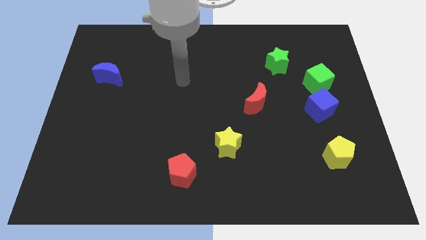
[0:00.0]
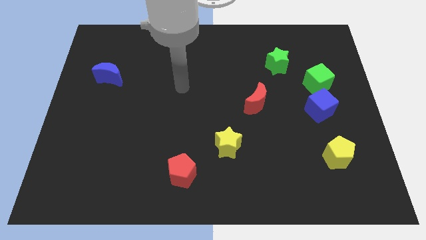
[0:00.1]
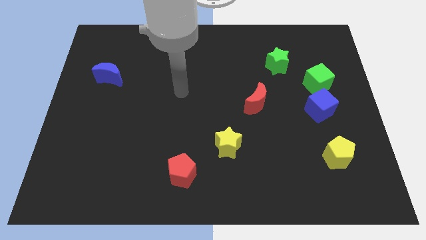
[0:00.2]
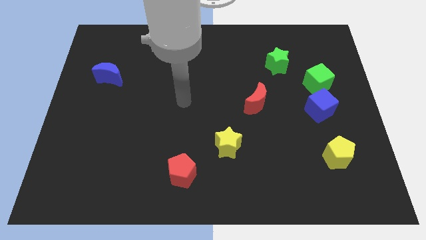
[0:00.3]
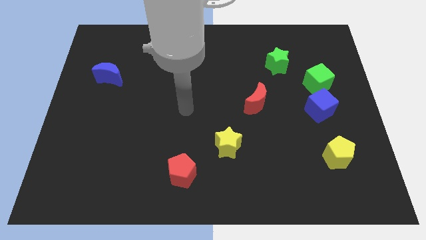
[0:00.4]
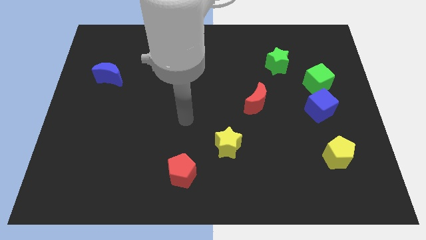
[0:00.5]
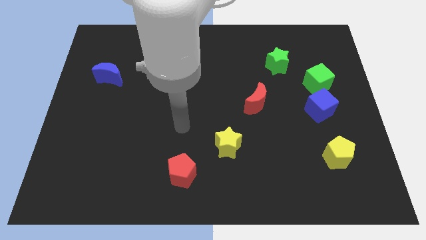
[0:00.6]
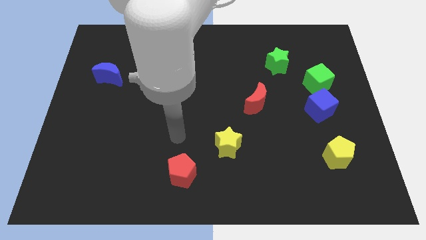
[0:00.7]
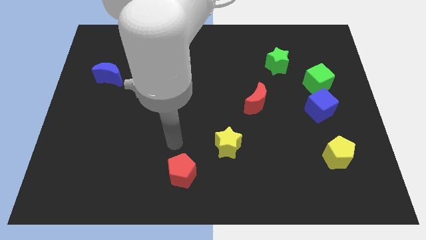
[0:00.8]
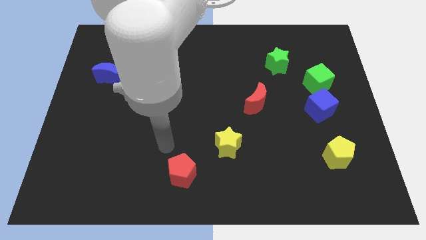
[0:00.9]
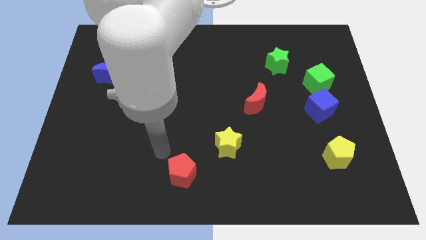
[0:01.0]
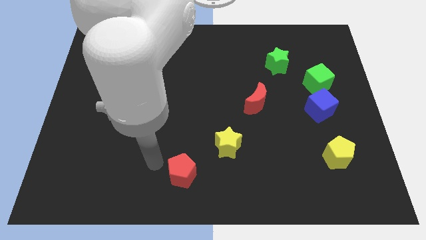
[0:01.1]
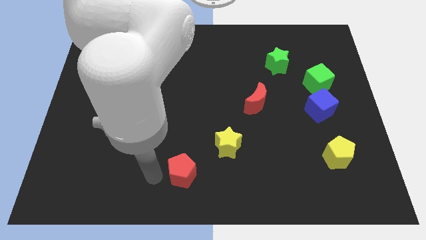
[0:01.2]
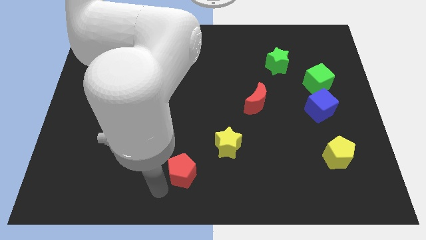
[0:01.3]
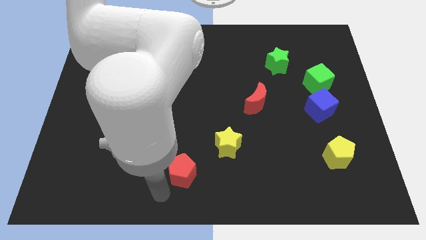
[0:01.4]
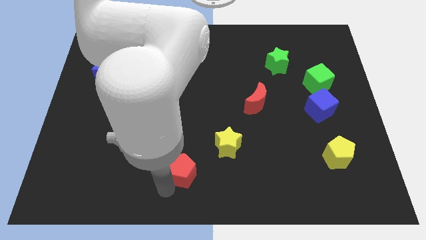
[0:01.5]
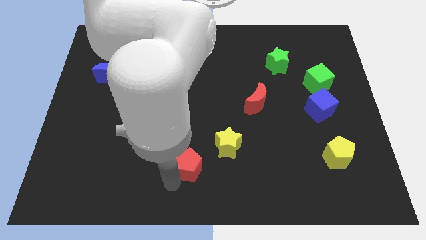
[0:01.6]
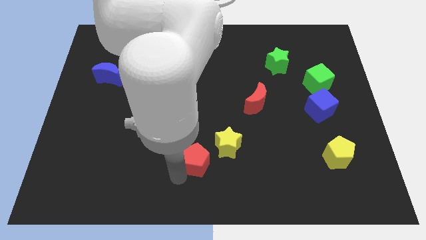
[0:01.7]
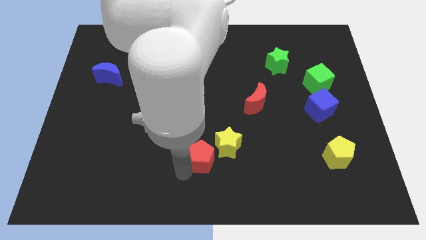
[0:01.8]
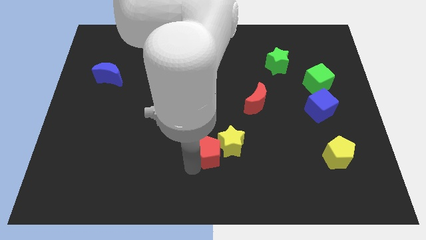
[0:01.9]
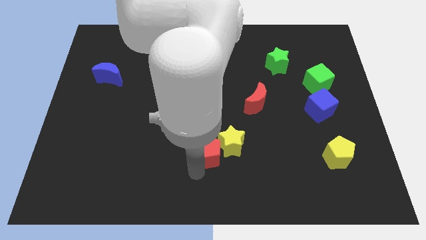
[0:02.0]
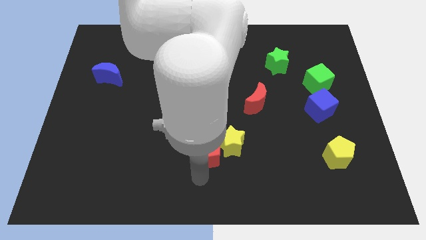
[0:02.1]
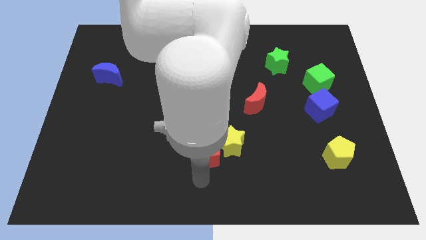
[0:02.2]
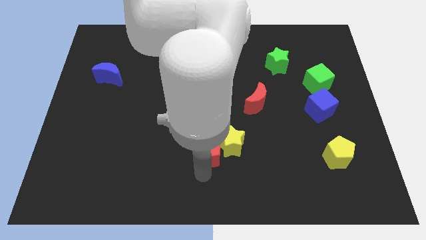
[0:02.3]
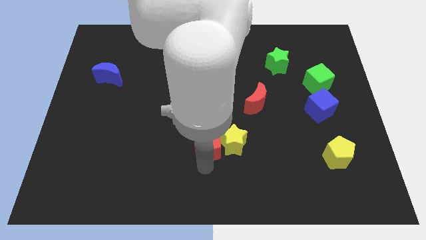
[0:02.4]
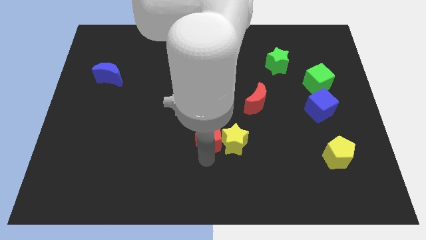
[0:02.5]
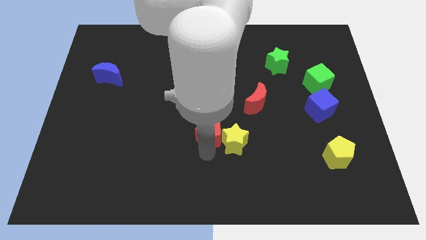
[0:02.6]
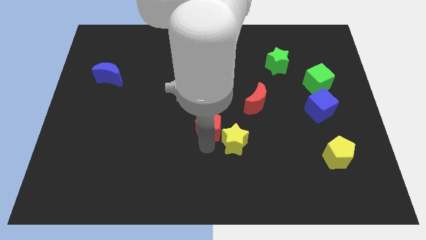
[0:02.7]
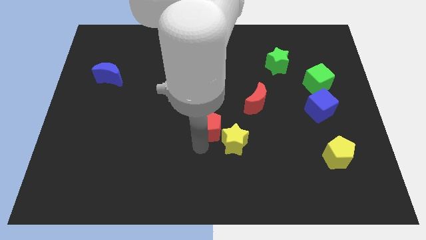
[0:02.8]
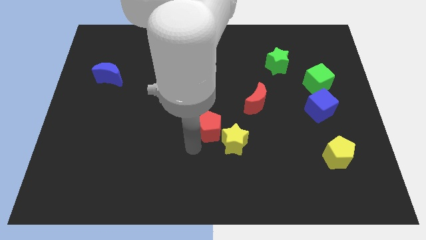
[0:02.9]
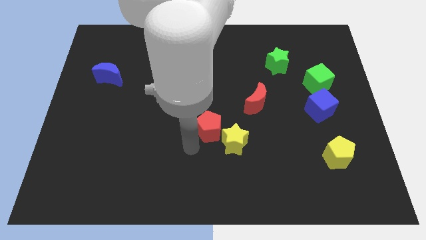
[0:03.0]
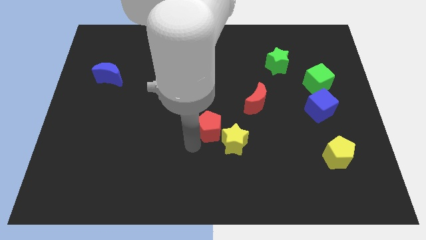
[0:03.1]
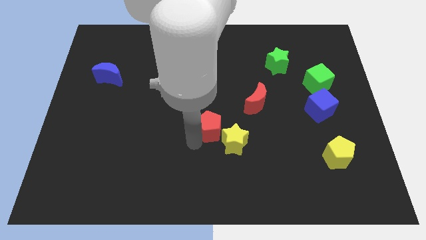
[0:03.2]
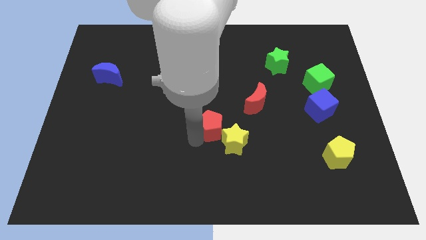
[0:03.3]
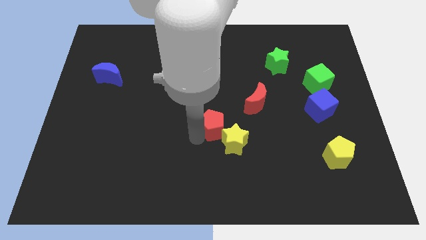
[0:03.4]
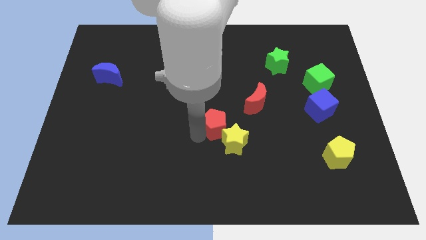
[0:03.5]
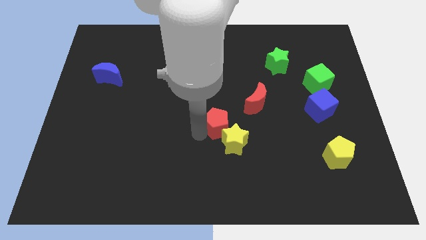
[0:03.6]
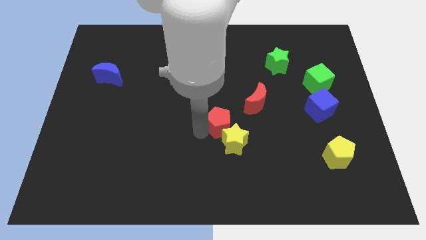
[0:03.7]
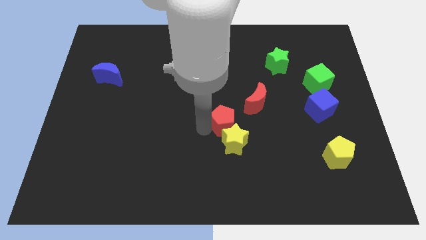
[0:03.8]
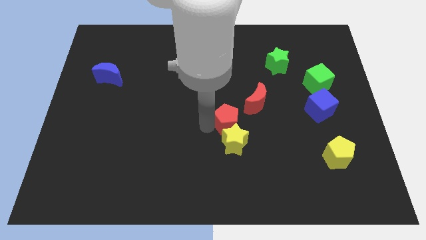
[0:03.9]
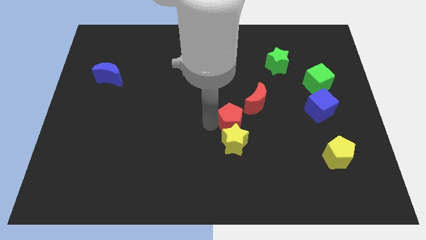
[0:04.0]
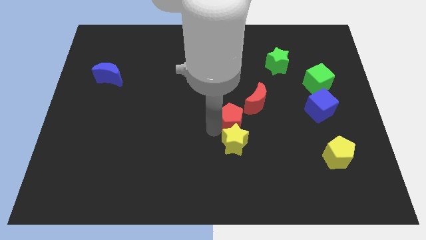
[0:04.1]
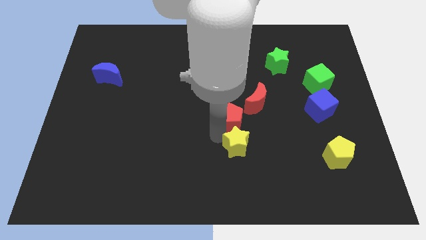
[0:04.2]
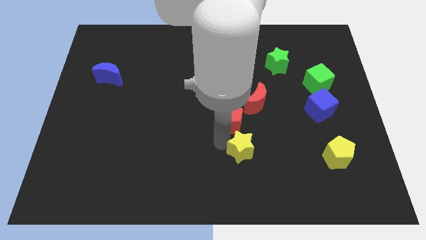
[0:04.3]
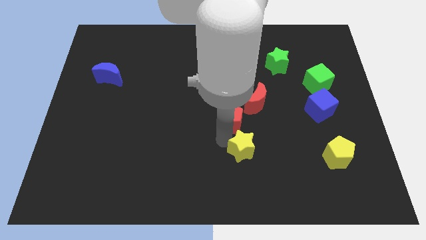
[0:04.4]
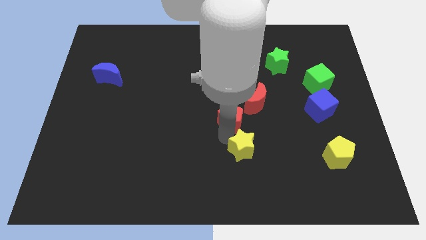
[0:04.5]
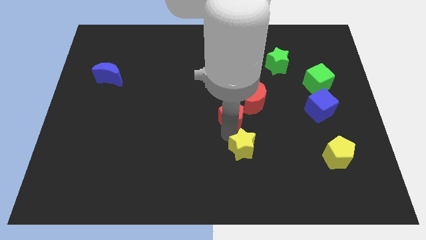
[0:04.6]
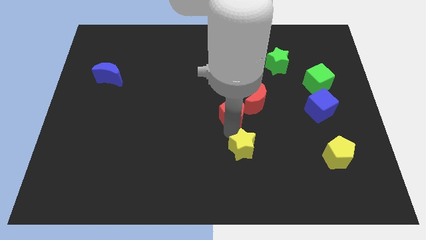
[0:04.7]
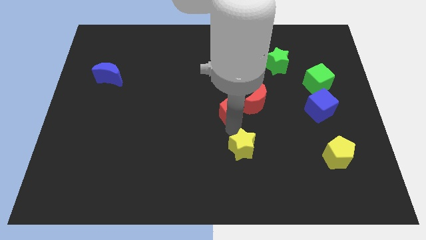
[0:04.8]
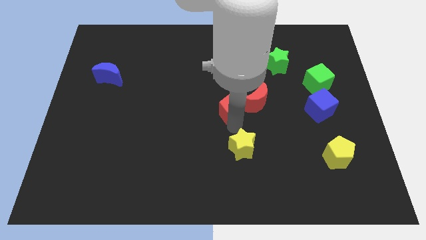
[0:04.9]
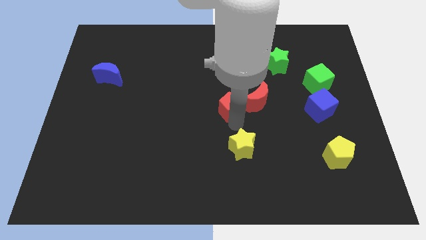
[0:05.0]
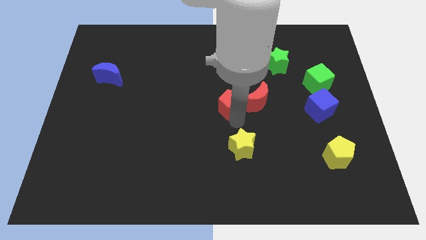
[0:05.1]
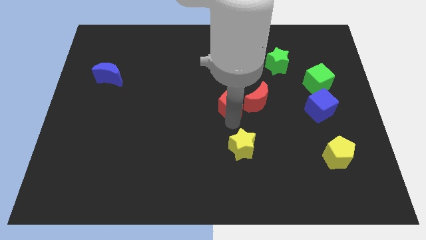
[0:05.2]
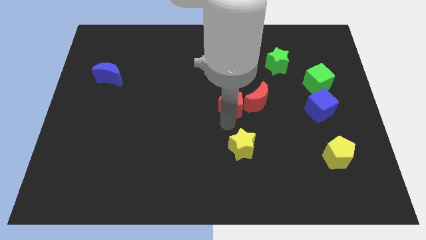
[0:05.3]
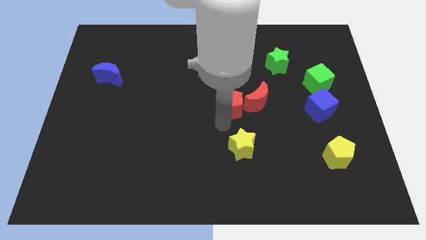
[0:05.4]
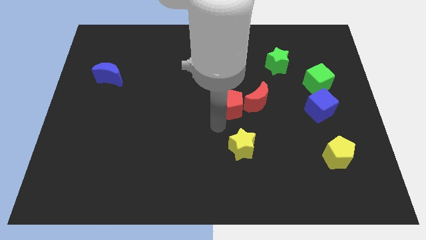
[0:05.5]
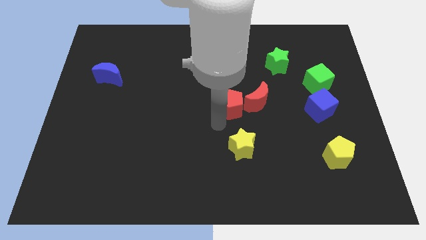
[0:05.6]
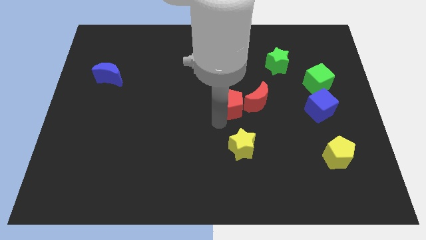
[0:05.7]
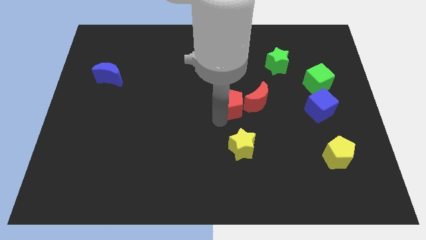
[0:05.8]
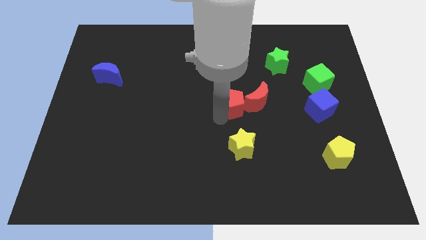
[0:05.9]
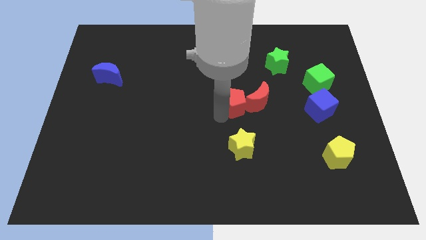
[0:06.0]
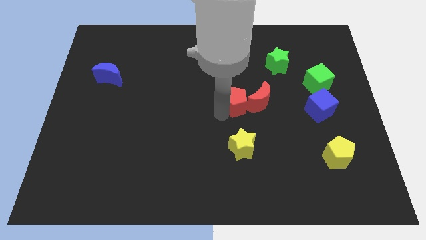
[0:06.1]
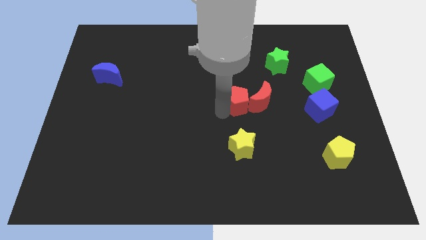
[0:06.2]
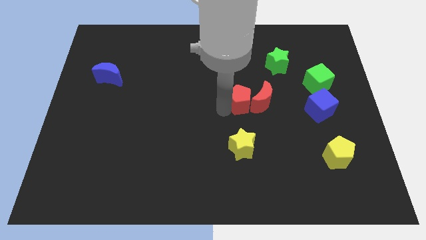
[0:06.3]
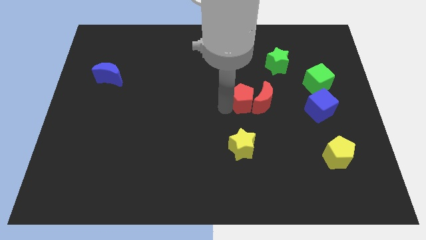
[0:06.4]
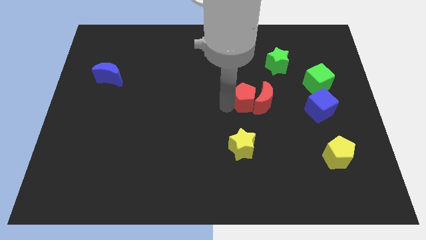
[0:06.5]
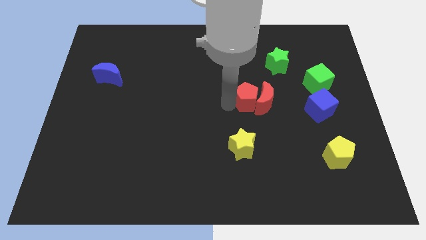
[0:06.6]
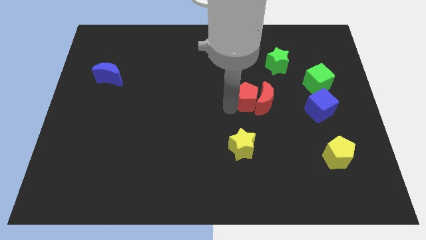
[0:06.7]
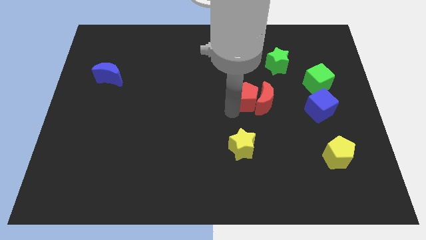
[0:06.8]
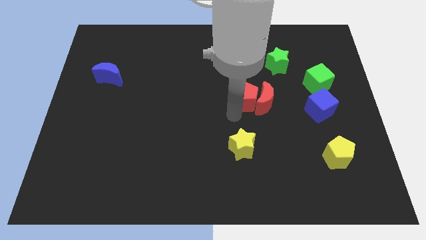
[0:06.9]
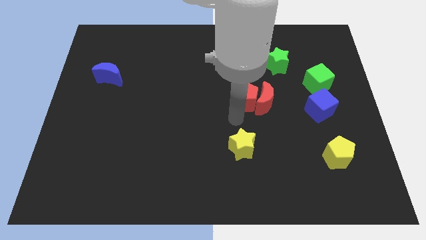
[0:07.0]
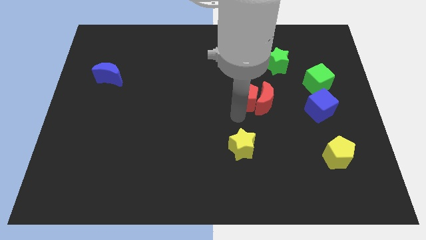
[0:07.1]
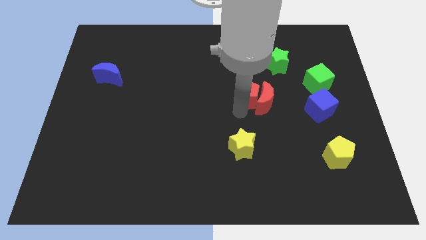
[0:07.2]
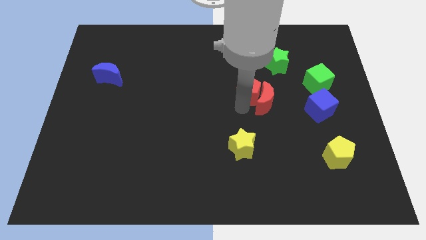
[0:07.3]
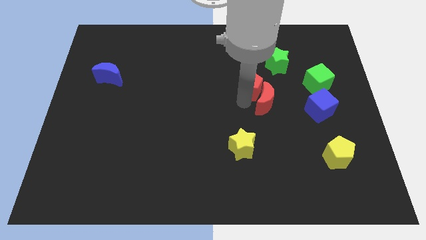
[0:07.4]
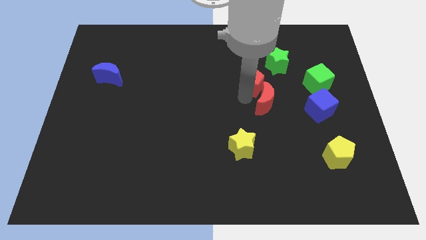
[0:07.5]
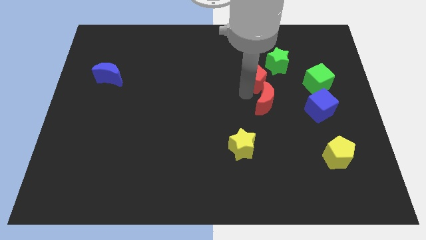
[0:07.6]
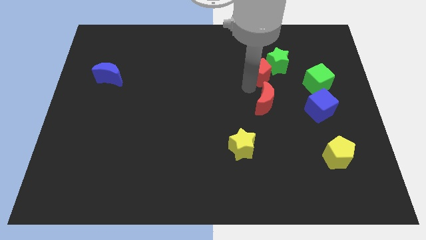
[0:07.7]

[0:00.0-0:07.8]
move the red pentagon to the green star
